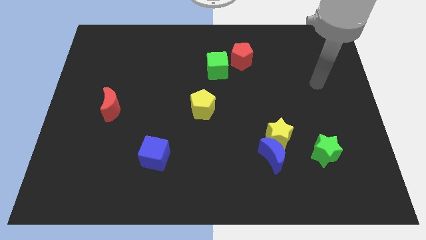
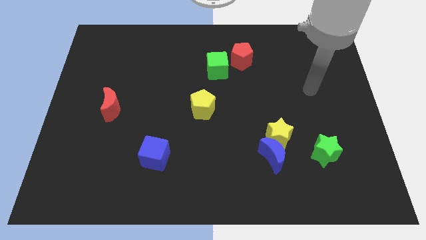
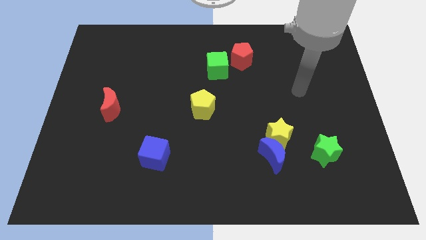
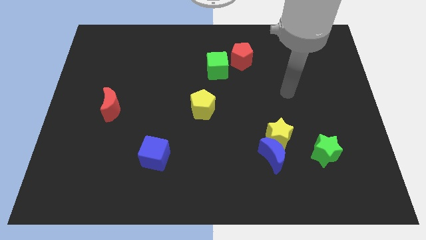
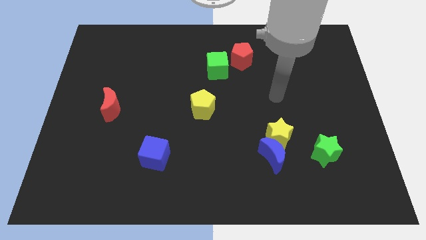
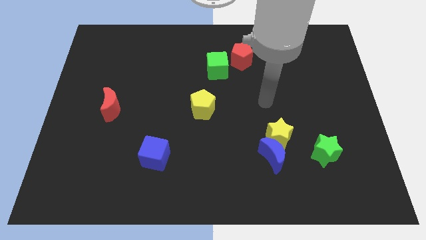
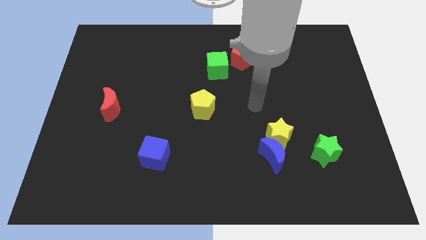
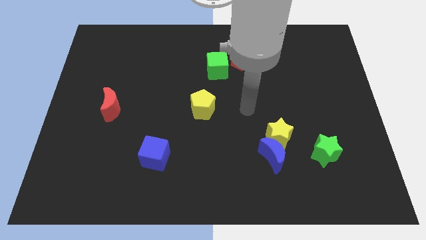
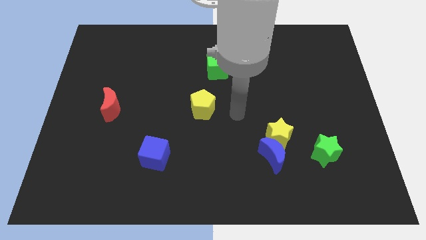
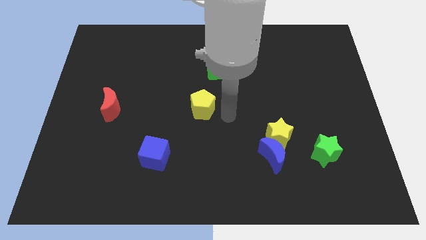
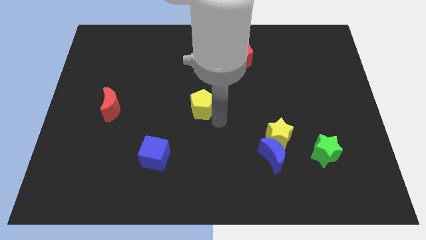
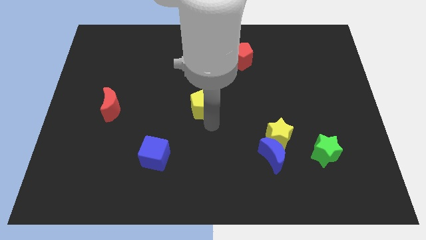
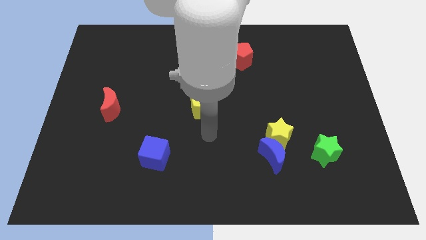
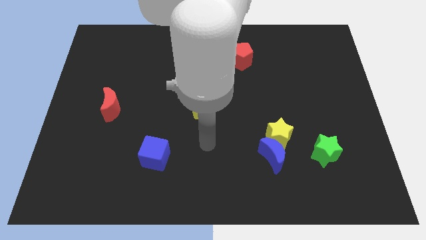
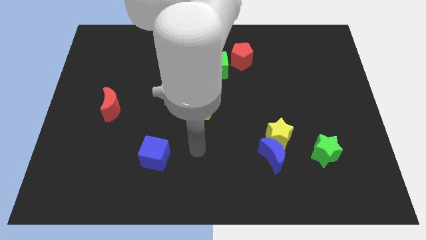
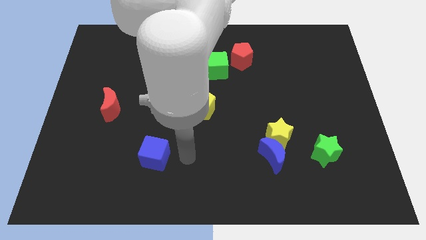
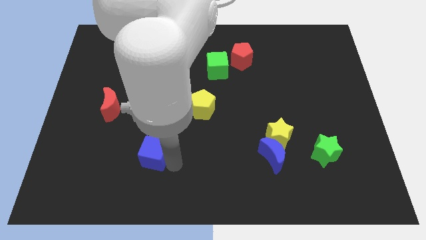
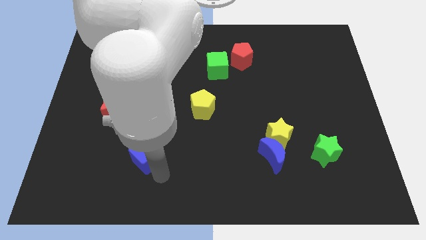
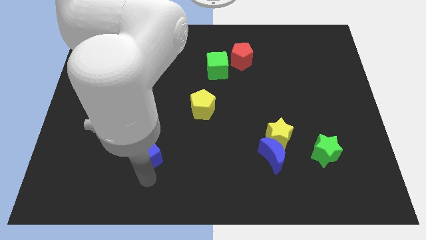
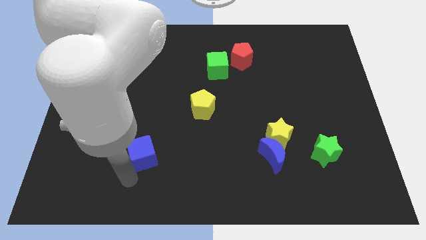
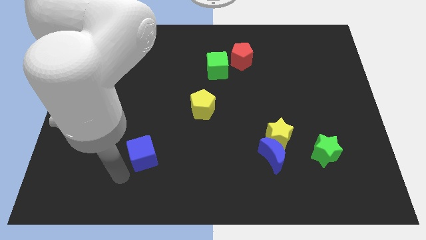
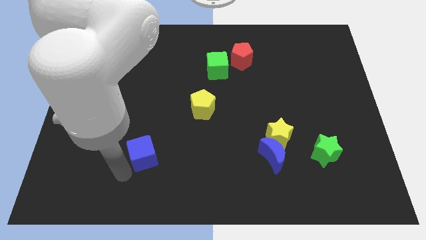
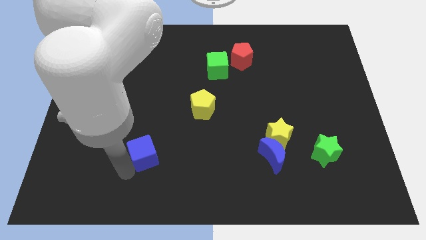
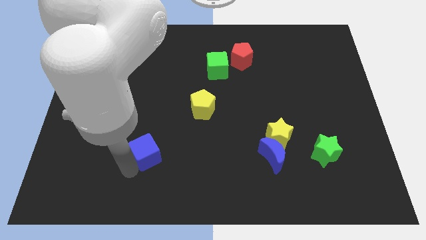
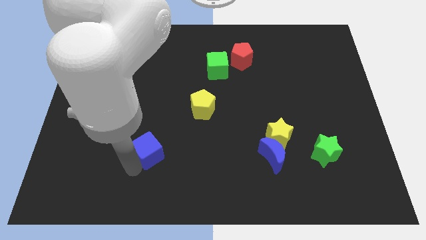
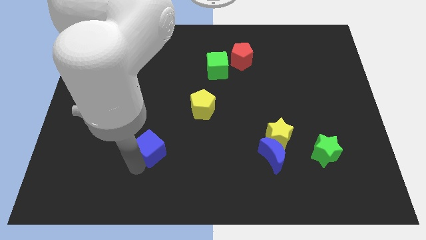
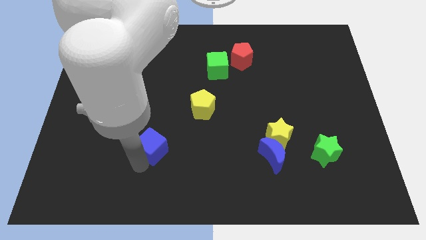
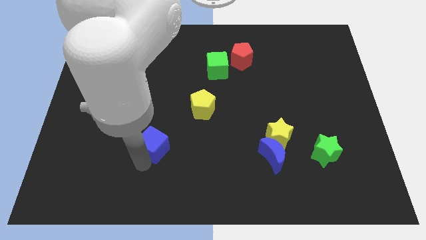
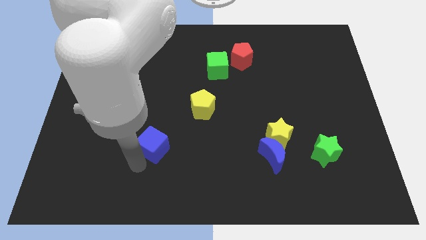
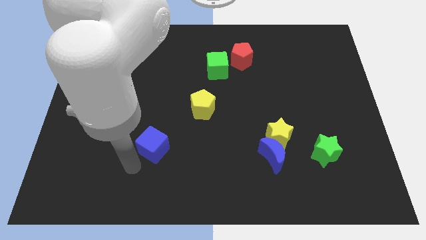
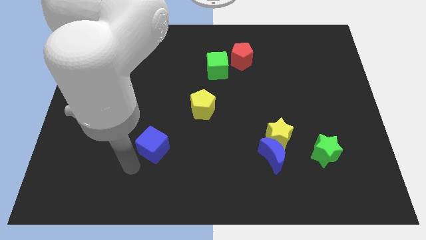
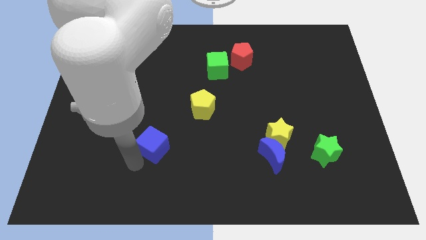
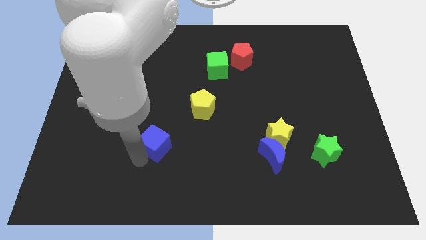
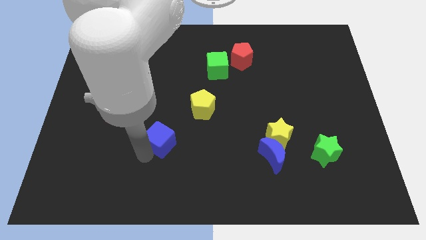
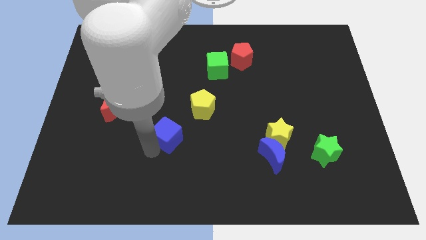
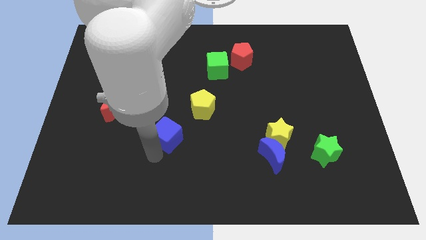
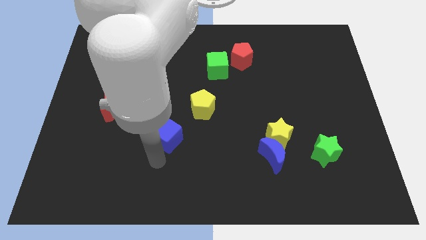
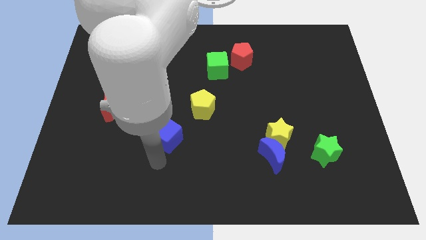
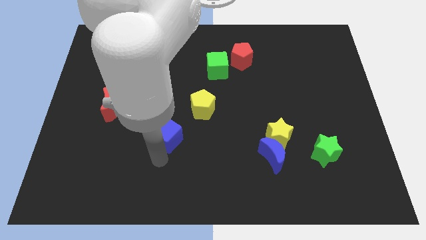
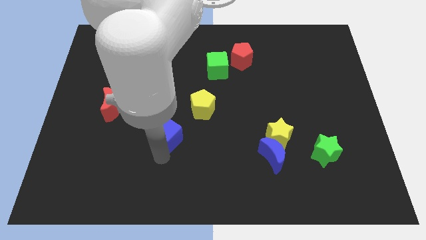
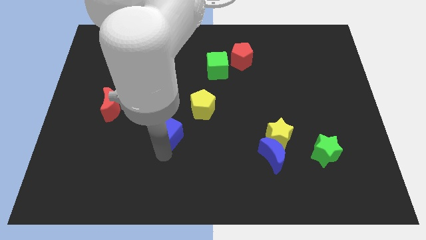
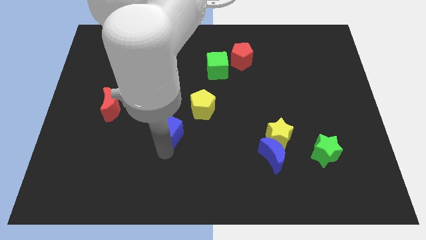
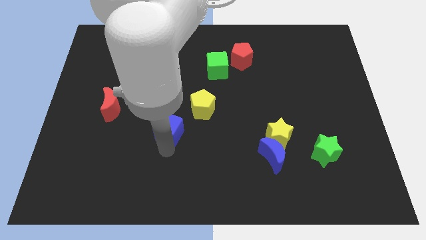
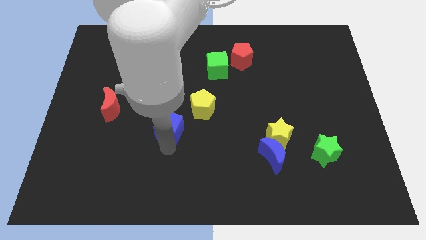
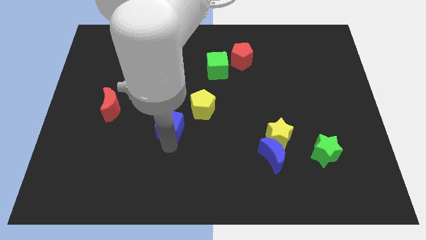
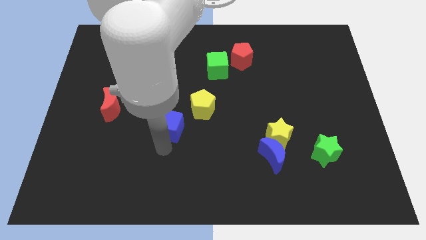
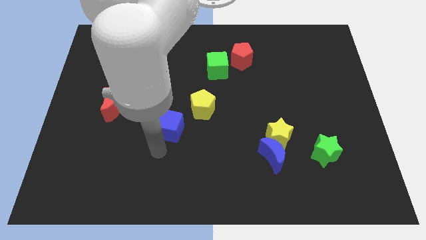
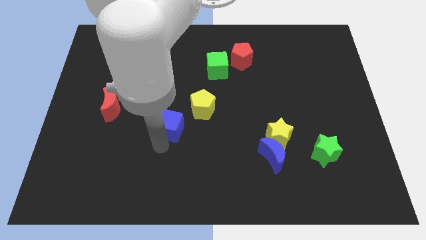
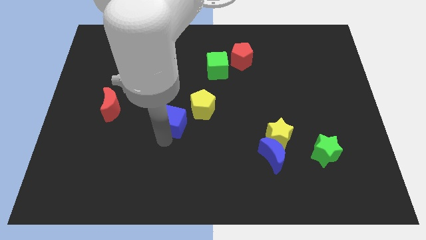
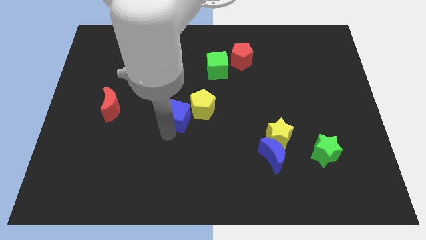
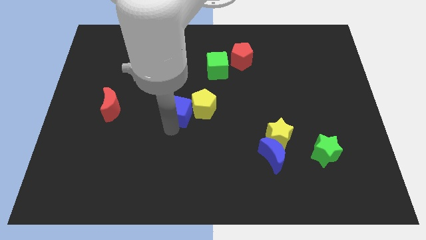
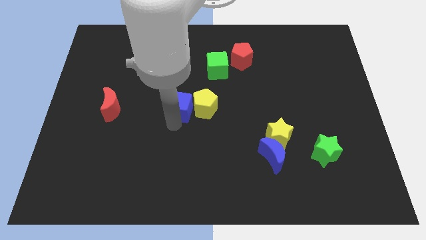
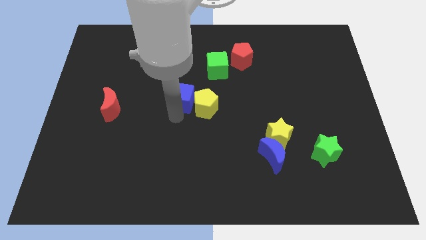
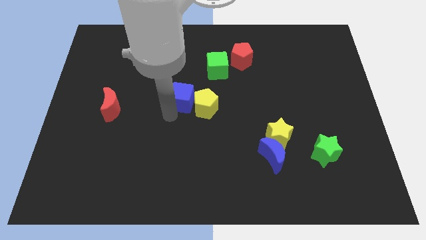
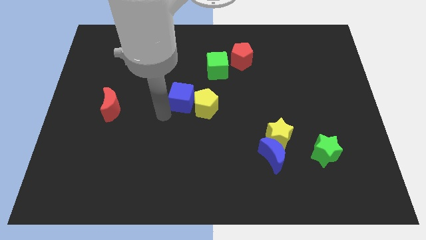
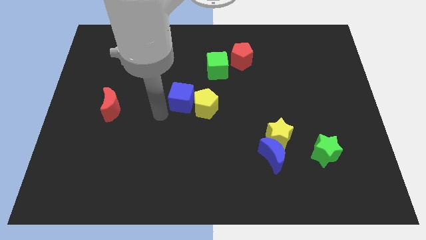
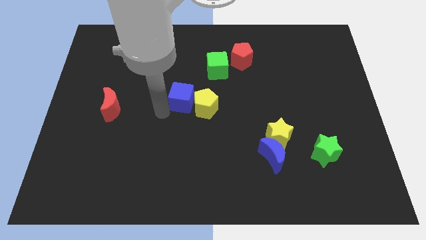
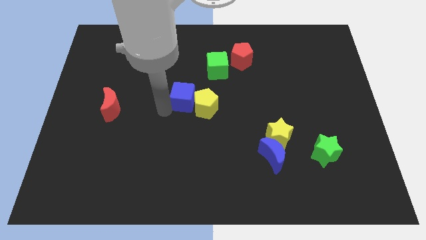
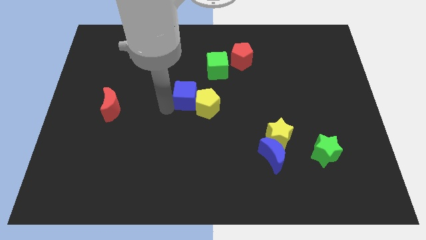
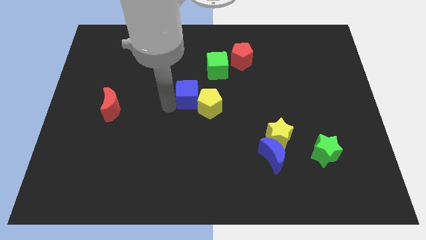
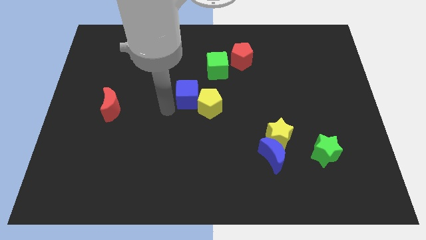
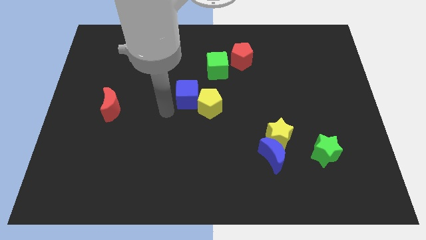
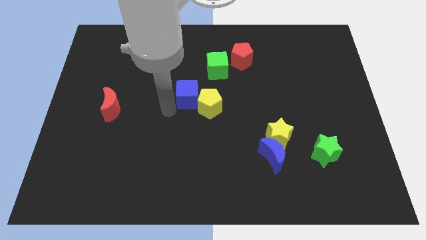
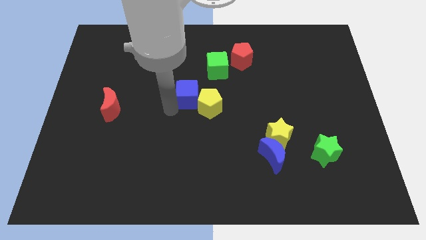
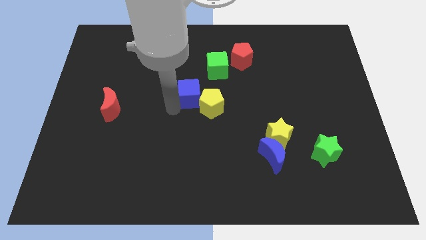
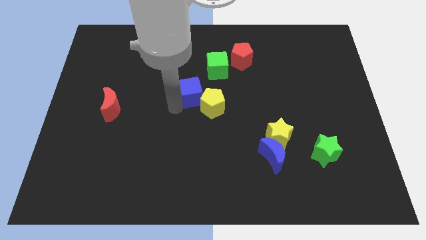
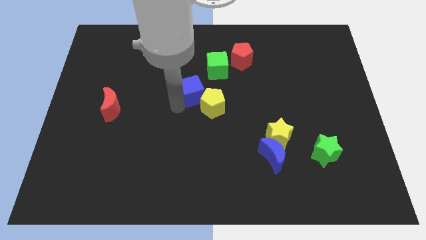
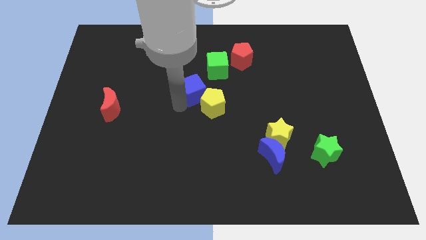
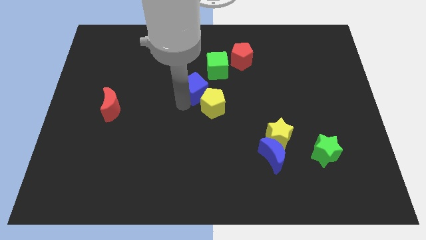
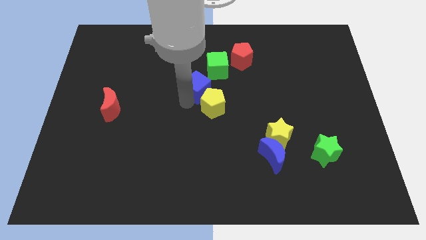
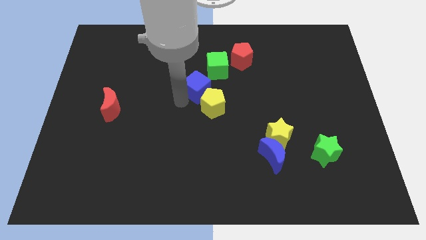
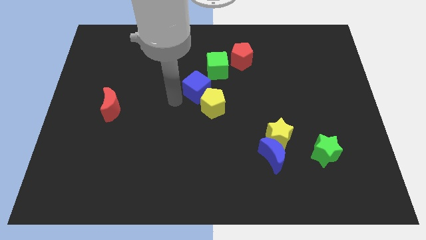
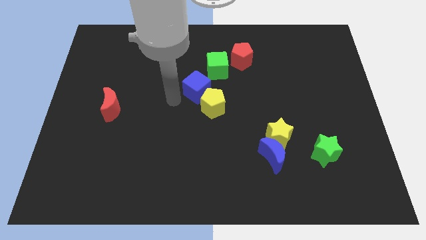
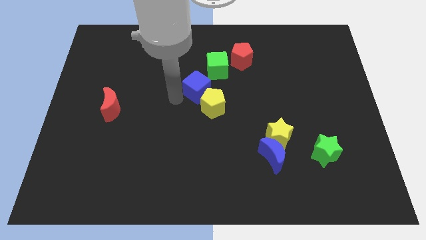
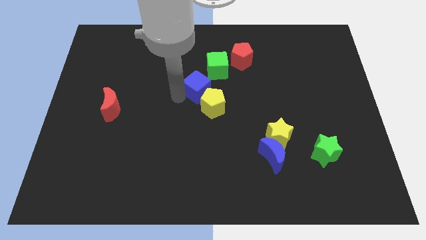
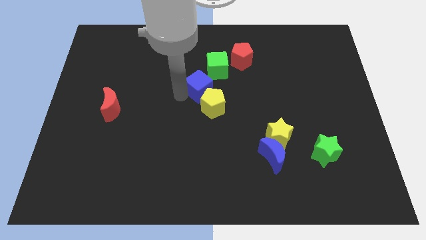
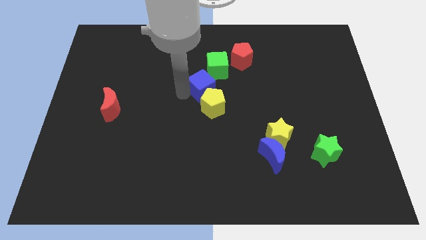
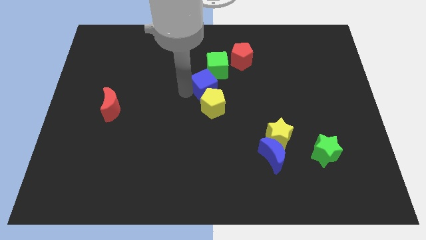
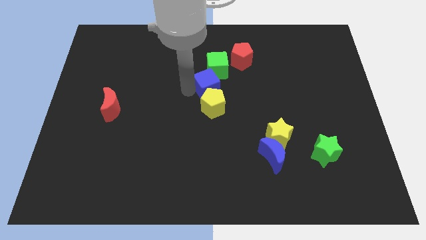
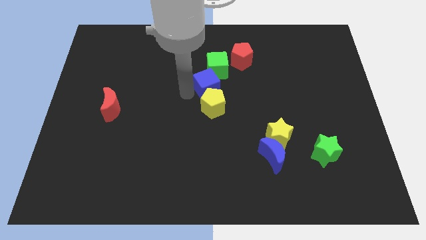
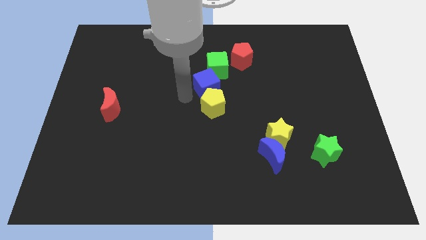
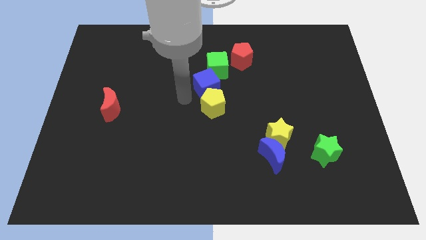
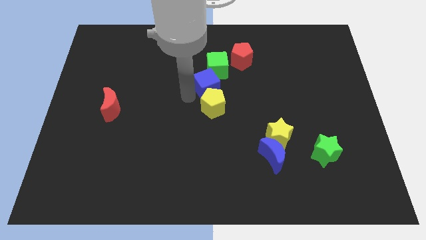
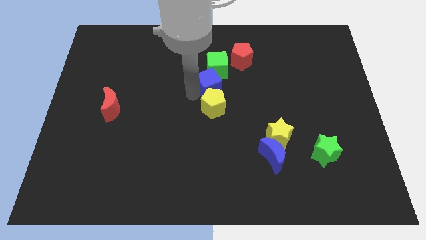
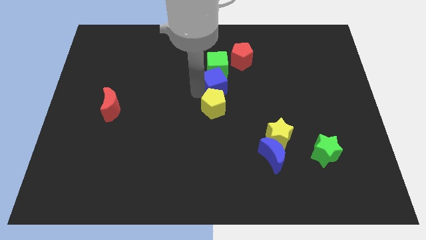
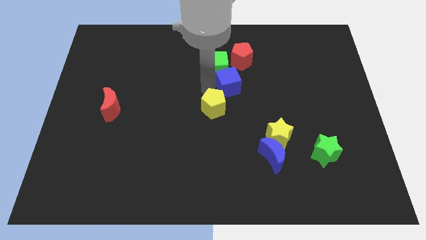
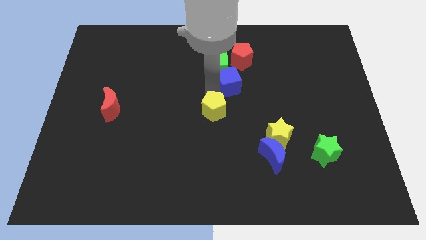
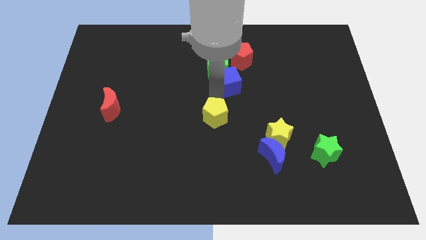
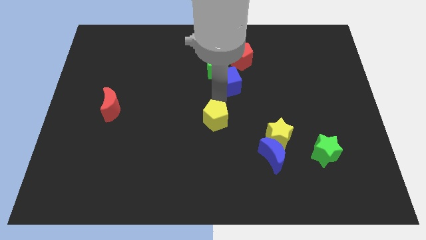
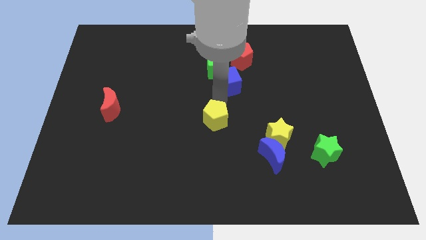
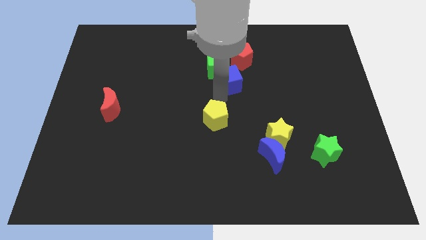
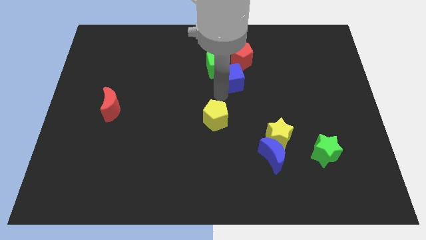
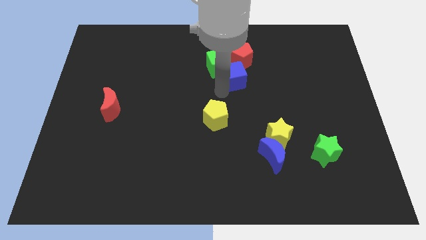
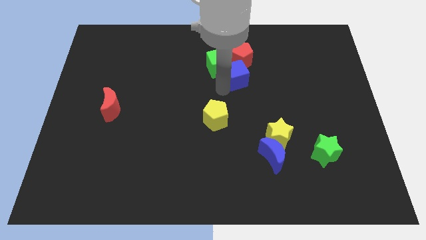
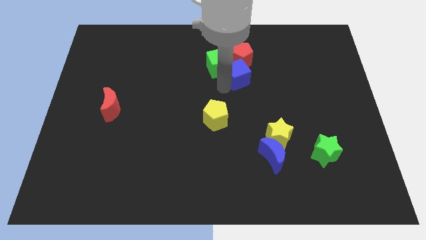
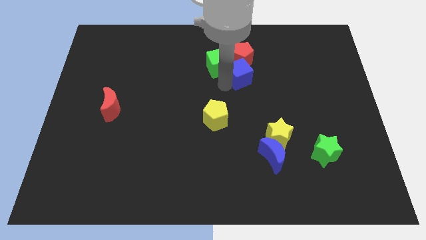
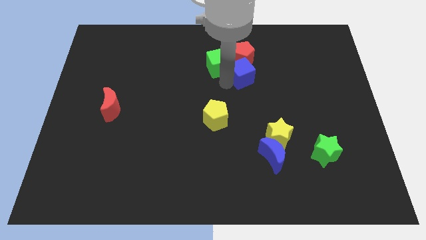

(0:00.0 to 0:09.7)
move the blue cube to the red pentagon
